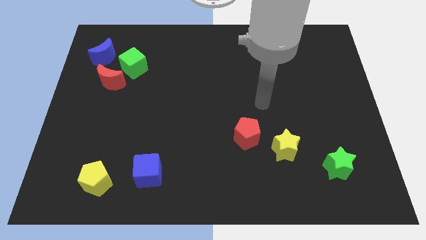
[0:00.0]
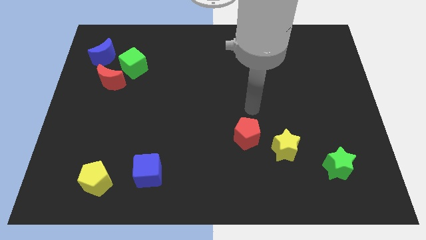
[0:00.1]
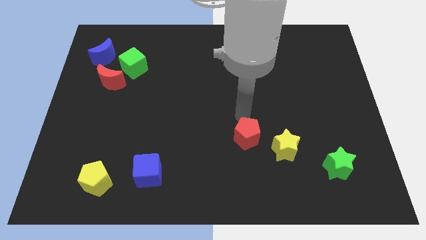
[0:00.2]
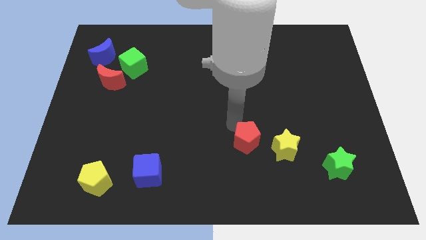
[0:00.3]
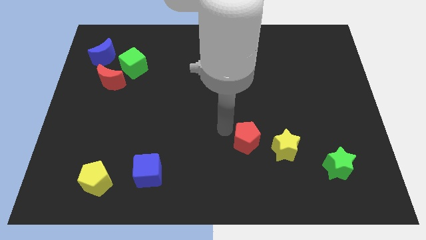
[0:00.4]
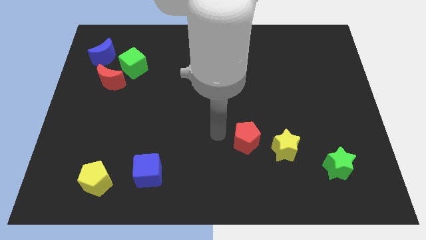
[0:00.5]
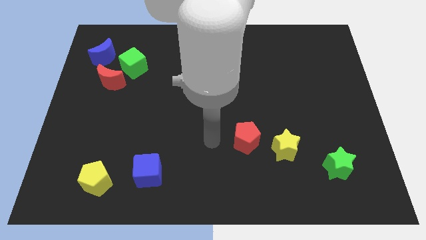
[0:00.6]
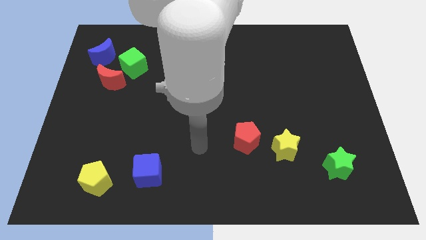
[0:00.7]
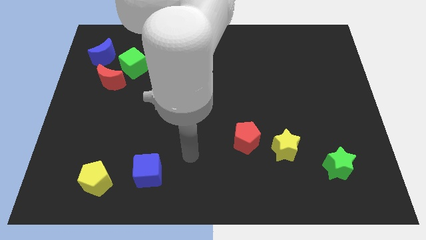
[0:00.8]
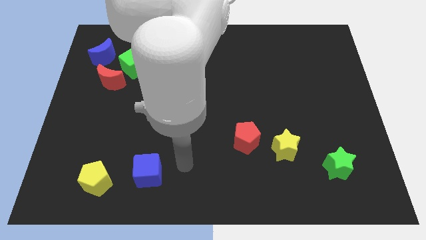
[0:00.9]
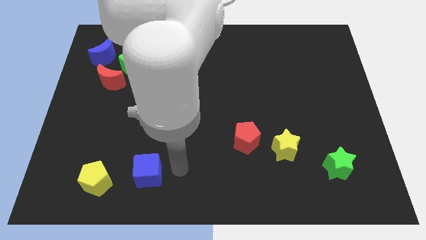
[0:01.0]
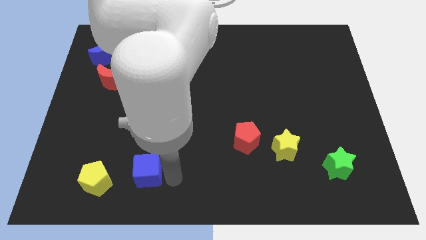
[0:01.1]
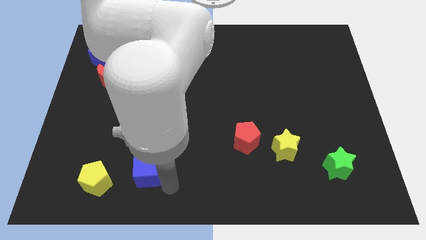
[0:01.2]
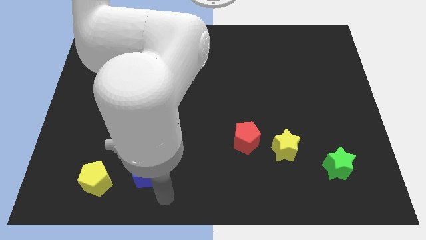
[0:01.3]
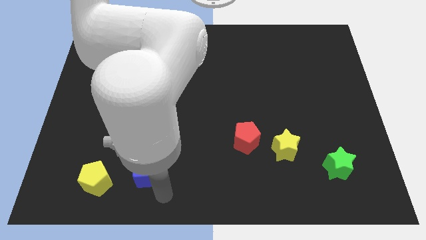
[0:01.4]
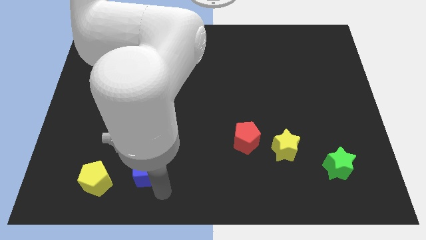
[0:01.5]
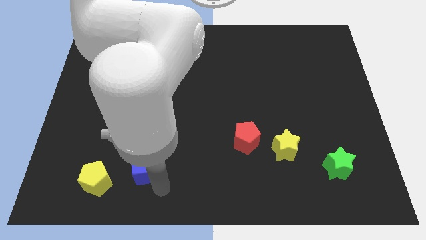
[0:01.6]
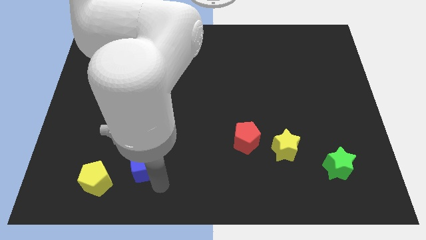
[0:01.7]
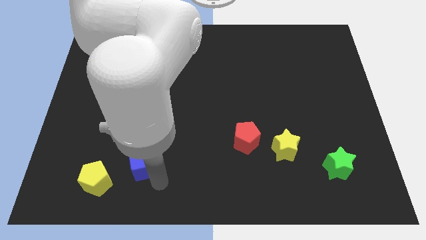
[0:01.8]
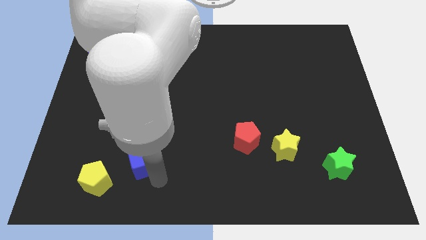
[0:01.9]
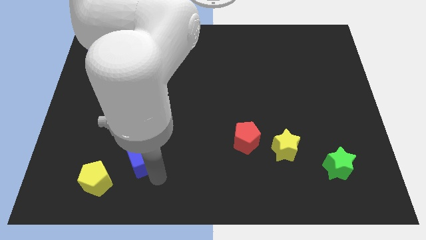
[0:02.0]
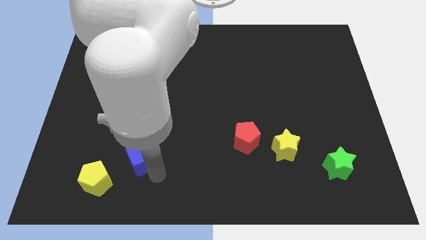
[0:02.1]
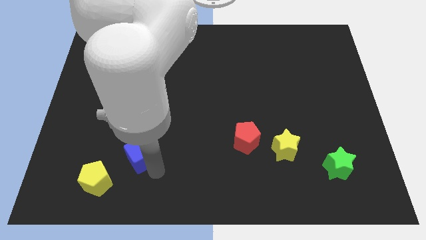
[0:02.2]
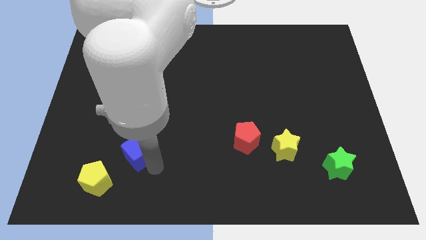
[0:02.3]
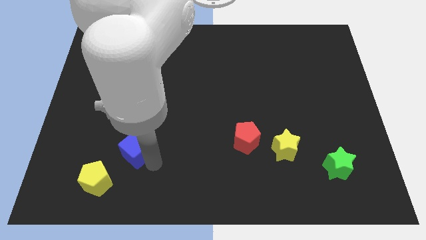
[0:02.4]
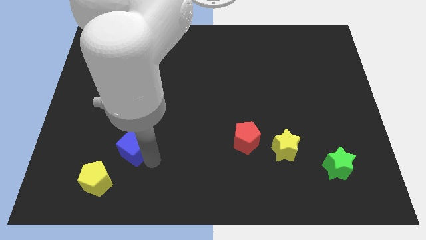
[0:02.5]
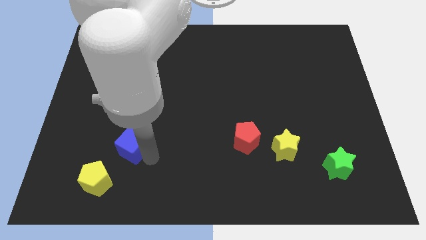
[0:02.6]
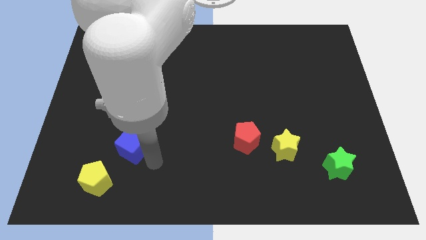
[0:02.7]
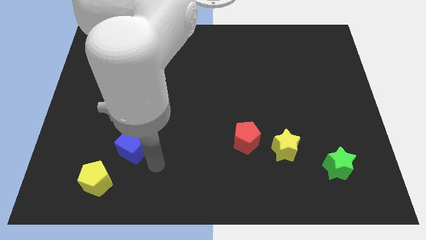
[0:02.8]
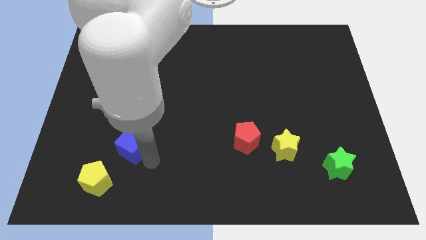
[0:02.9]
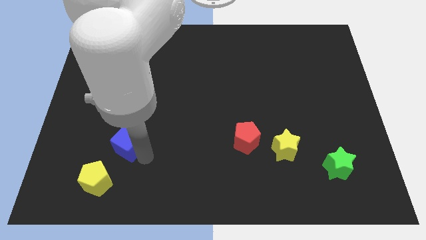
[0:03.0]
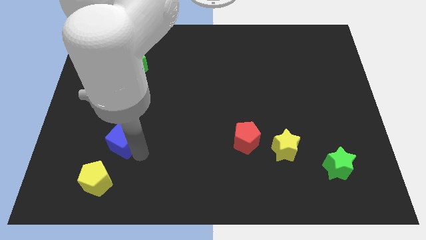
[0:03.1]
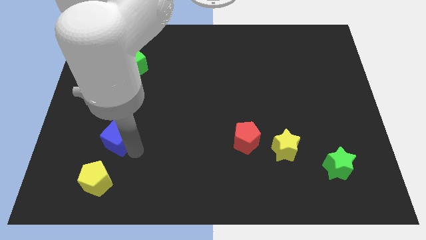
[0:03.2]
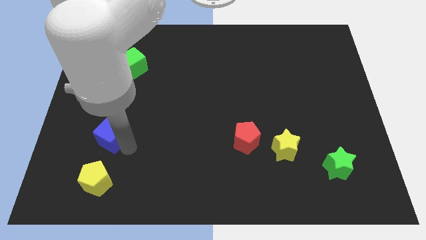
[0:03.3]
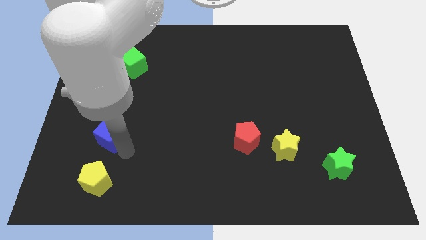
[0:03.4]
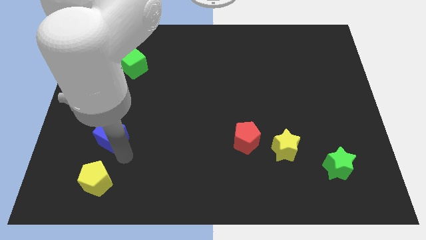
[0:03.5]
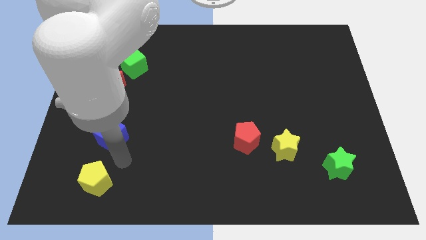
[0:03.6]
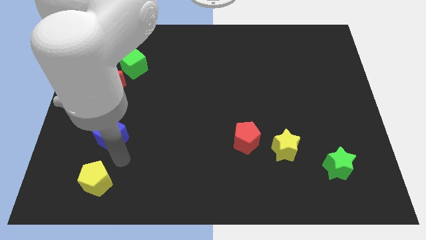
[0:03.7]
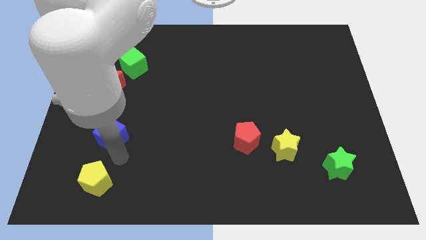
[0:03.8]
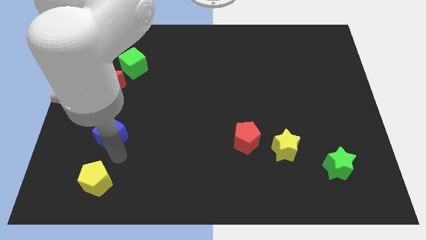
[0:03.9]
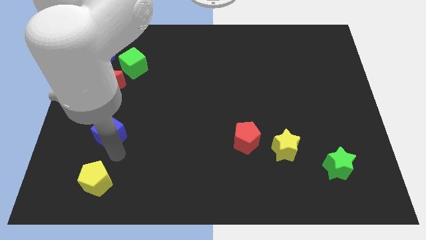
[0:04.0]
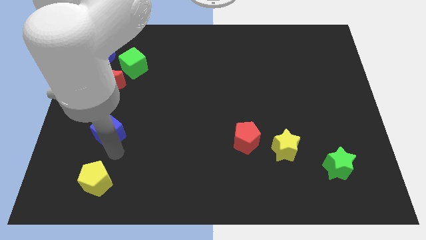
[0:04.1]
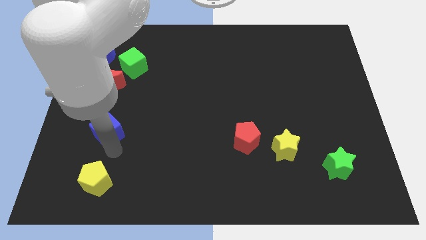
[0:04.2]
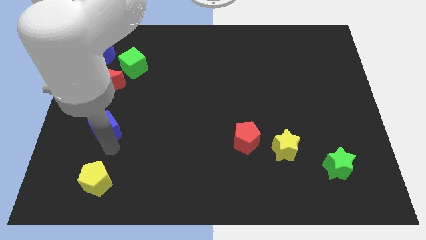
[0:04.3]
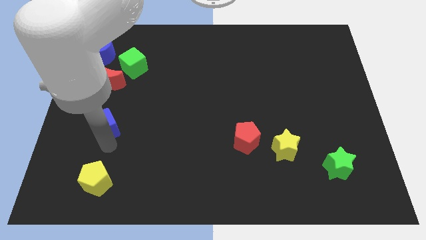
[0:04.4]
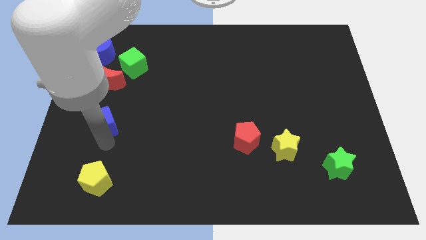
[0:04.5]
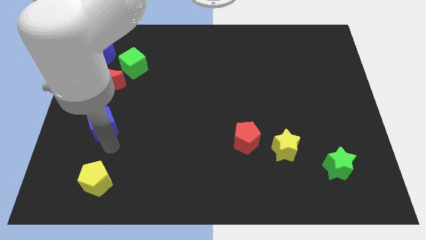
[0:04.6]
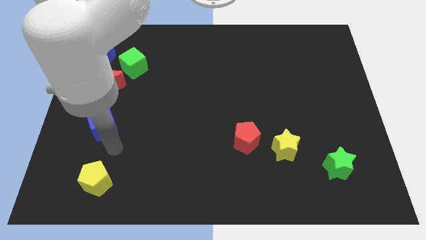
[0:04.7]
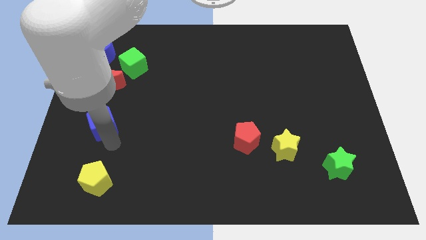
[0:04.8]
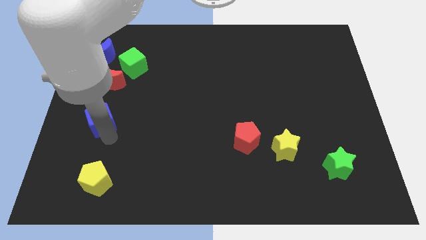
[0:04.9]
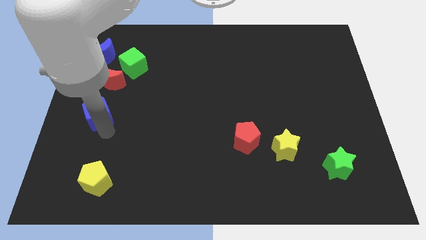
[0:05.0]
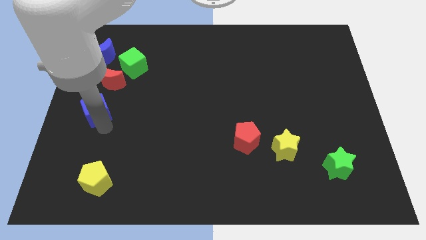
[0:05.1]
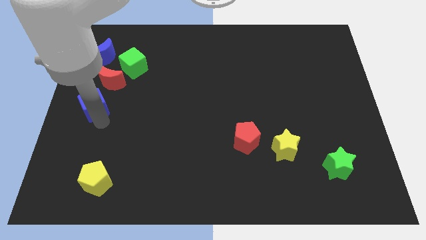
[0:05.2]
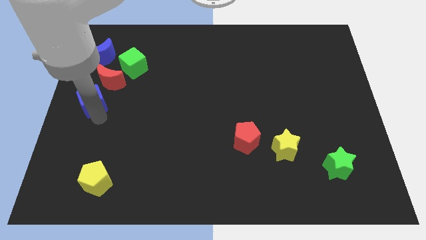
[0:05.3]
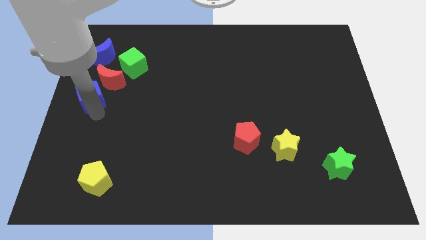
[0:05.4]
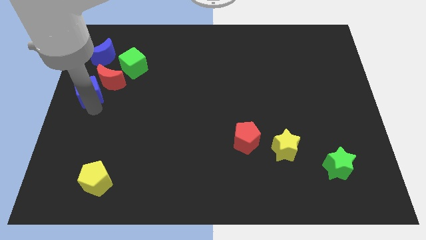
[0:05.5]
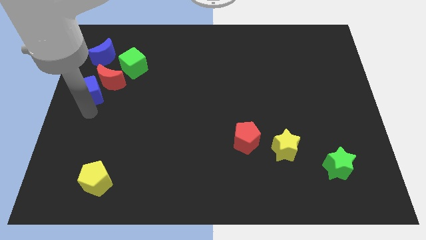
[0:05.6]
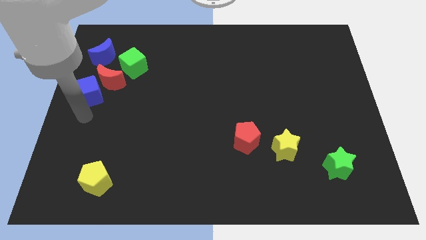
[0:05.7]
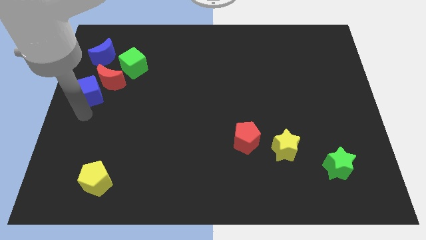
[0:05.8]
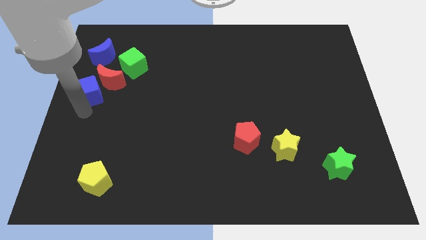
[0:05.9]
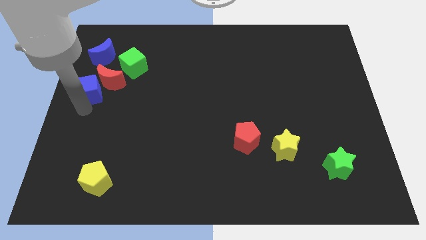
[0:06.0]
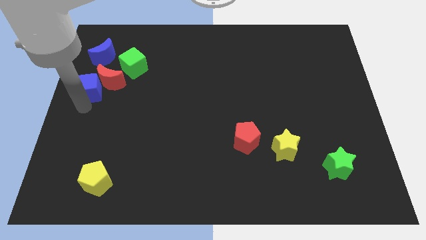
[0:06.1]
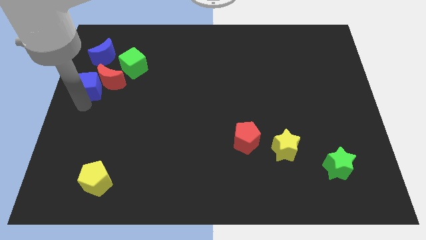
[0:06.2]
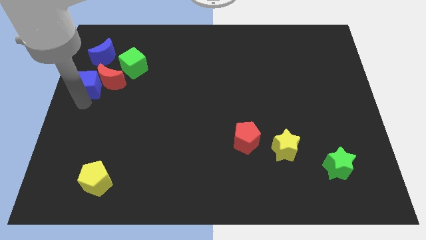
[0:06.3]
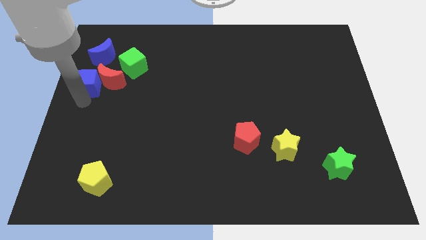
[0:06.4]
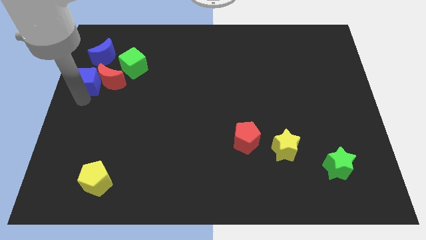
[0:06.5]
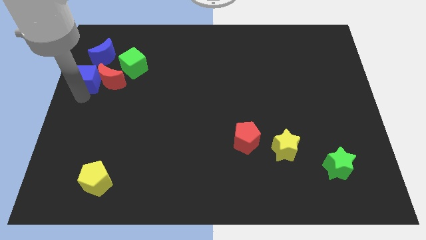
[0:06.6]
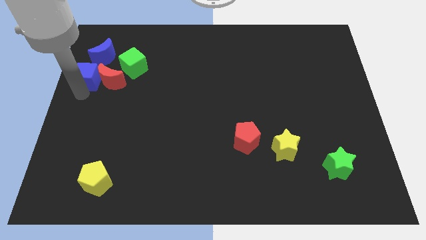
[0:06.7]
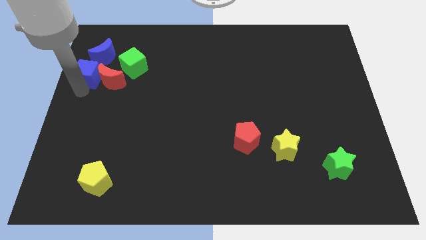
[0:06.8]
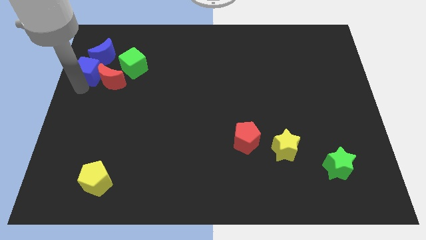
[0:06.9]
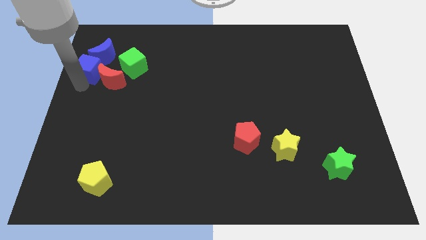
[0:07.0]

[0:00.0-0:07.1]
push the blue cube next to the blue moon

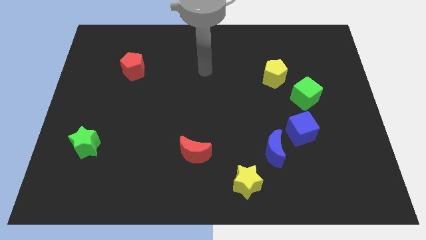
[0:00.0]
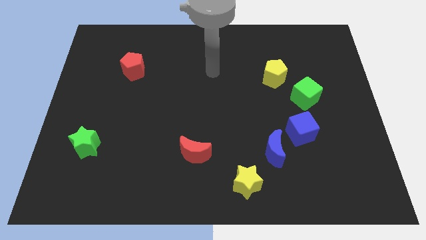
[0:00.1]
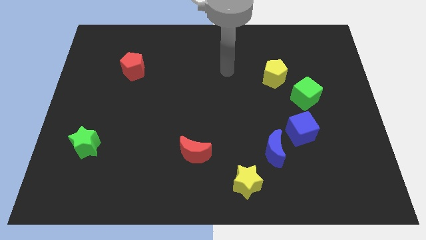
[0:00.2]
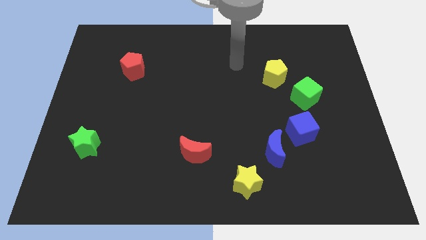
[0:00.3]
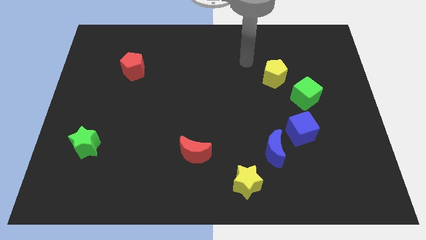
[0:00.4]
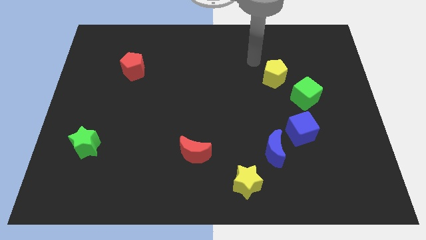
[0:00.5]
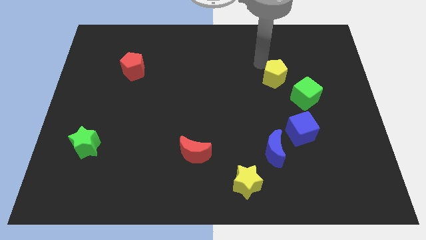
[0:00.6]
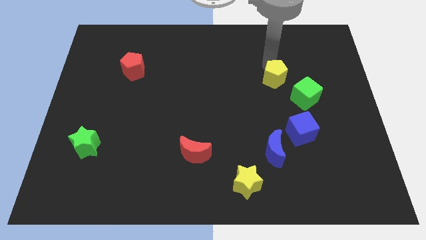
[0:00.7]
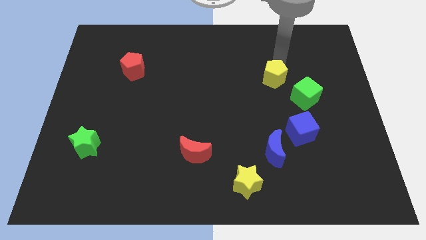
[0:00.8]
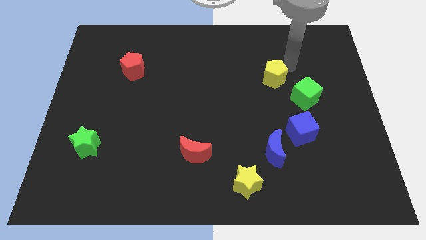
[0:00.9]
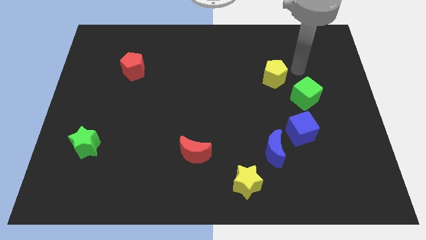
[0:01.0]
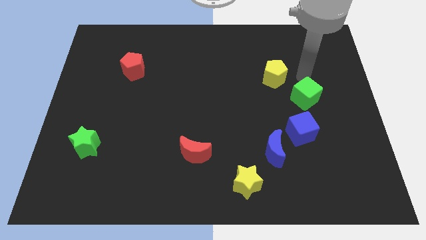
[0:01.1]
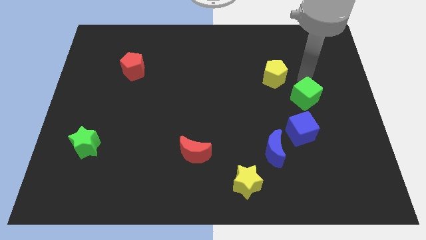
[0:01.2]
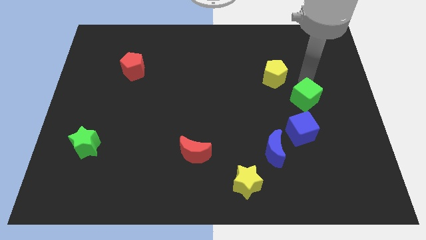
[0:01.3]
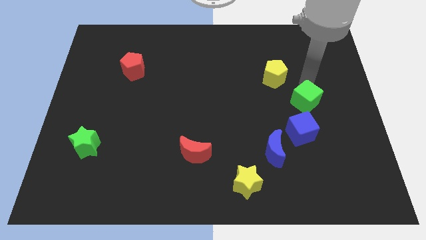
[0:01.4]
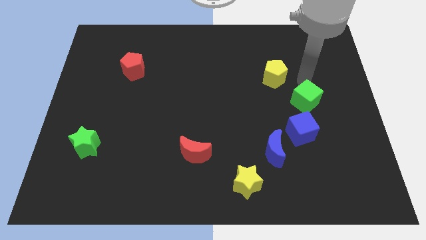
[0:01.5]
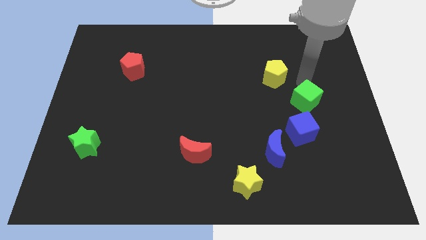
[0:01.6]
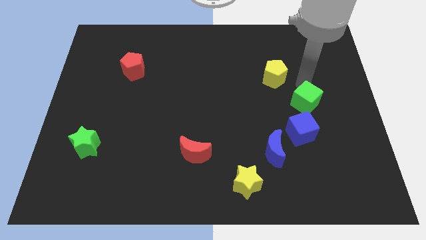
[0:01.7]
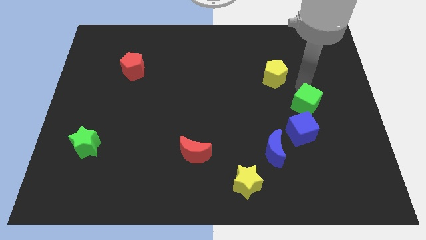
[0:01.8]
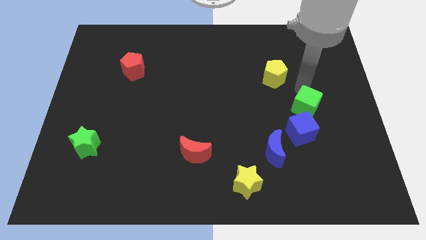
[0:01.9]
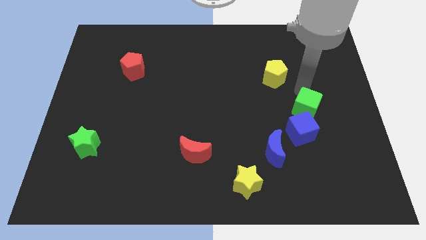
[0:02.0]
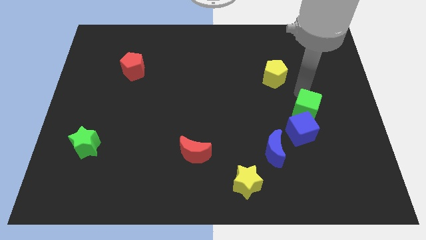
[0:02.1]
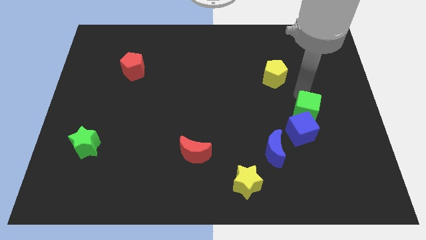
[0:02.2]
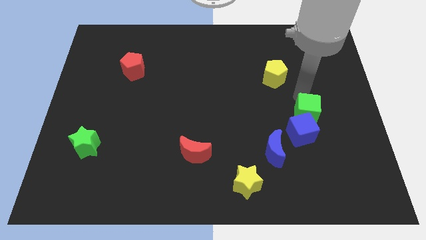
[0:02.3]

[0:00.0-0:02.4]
move the green cube next to the blue cube
